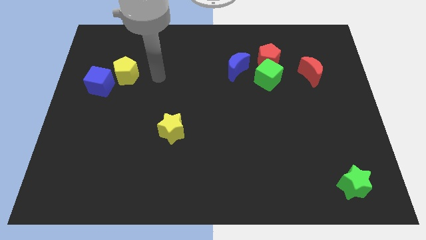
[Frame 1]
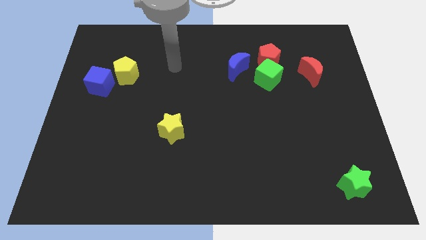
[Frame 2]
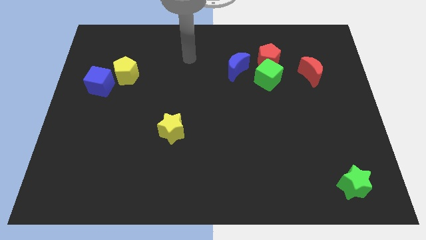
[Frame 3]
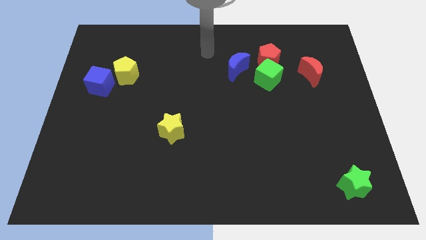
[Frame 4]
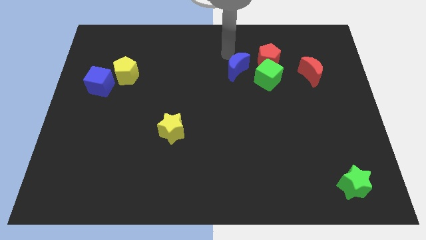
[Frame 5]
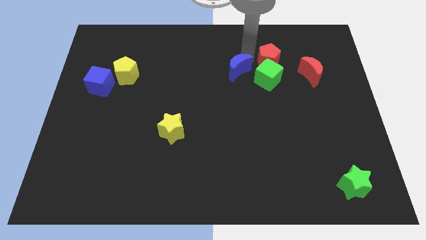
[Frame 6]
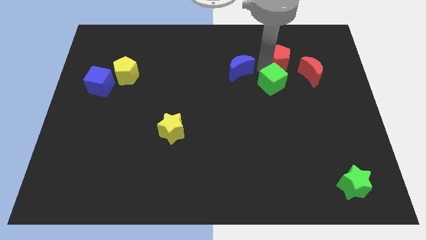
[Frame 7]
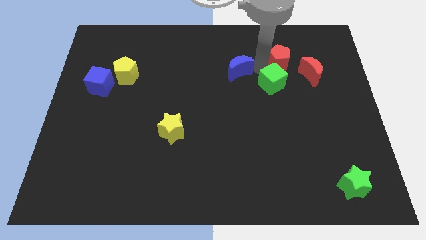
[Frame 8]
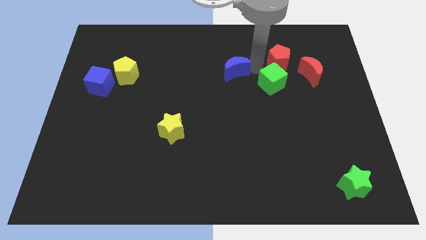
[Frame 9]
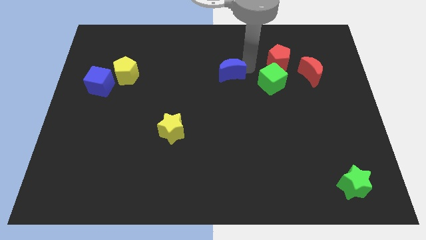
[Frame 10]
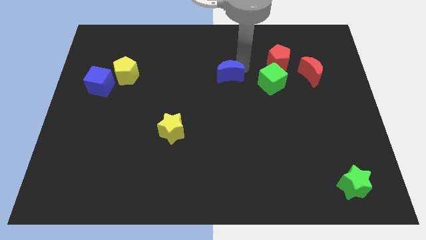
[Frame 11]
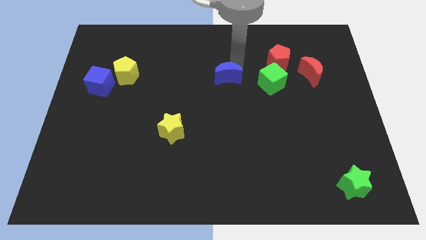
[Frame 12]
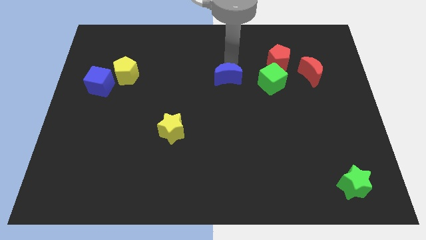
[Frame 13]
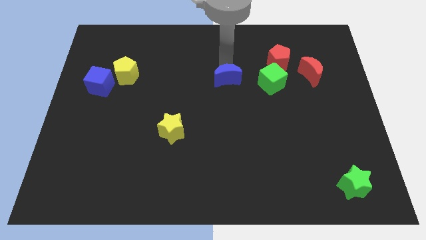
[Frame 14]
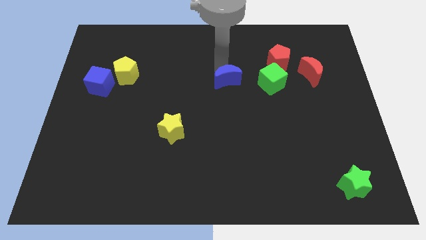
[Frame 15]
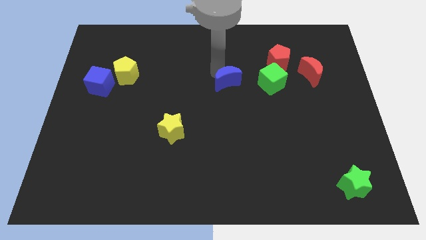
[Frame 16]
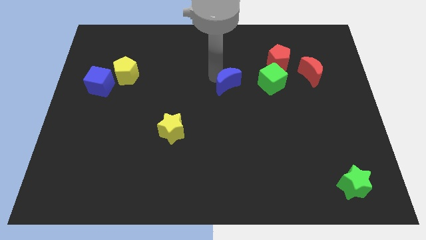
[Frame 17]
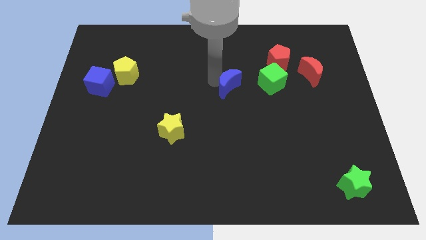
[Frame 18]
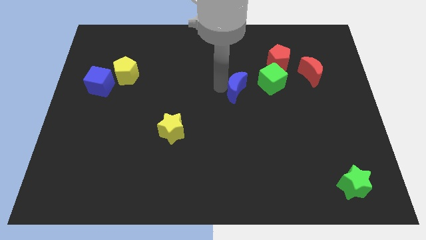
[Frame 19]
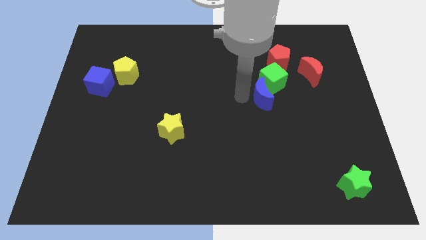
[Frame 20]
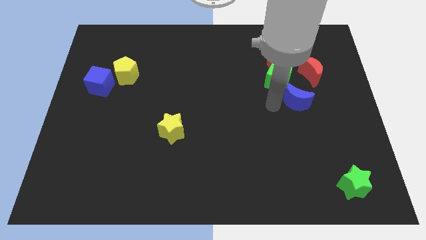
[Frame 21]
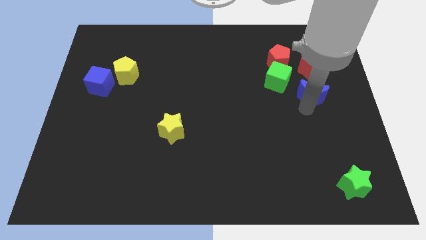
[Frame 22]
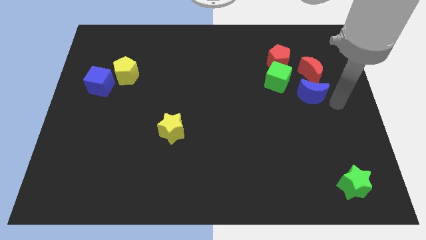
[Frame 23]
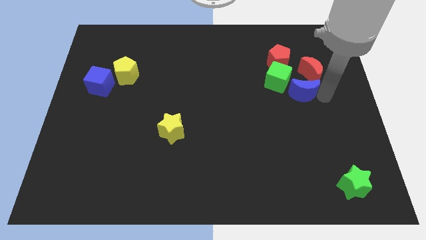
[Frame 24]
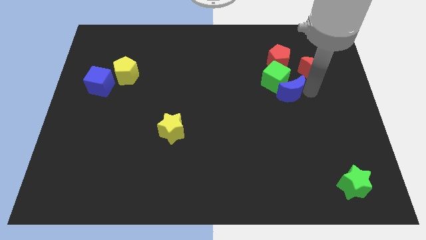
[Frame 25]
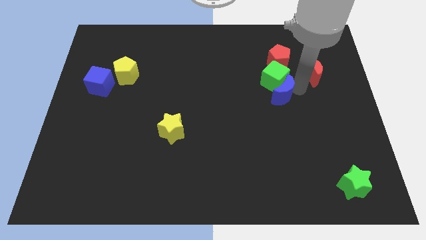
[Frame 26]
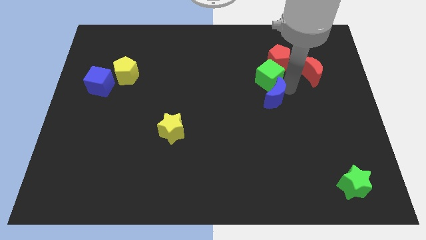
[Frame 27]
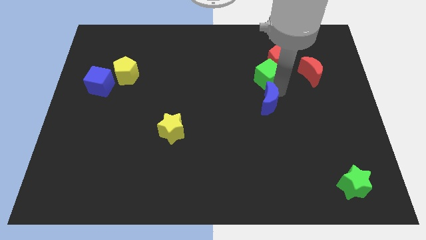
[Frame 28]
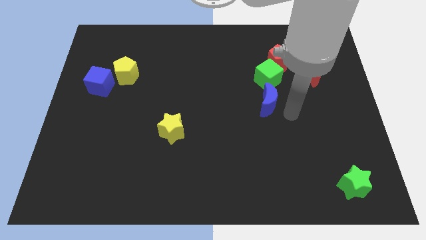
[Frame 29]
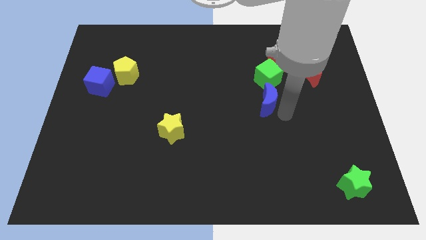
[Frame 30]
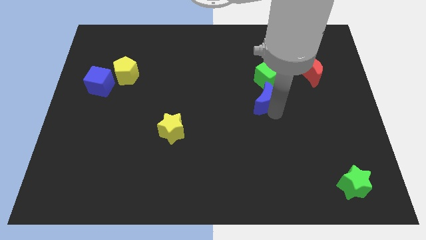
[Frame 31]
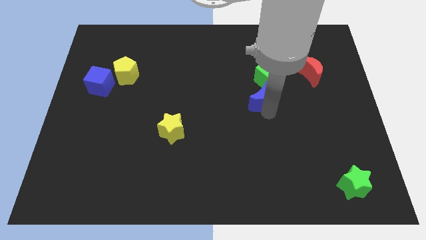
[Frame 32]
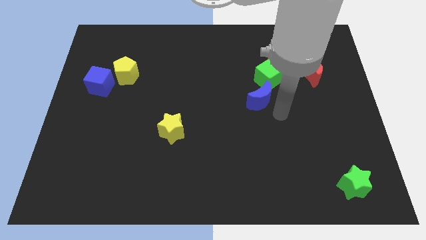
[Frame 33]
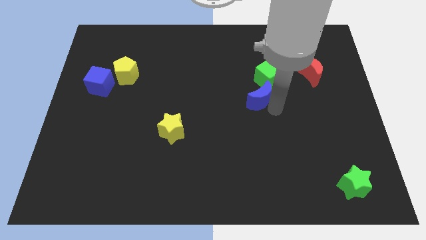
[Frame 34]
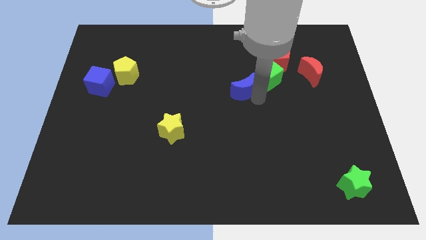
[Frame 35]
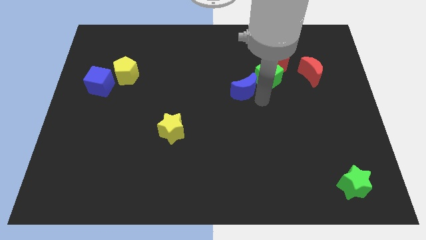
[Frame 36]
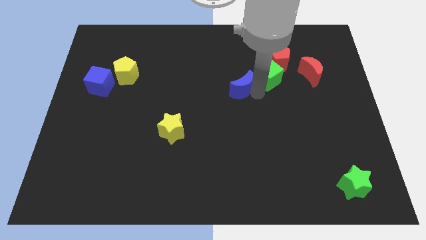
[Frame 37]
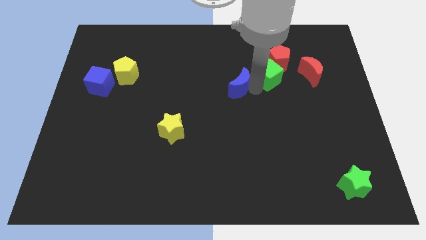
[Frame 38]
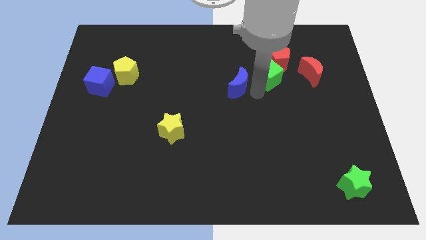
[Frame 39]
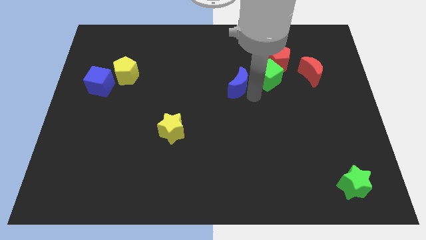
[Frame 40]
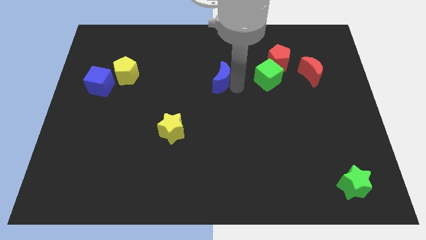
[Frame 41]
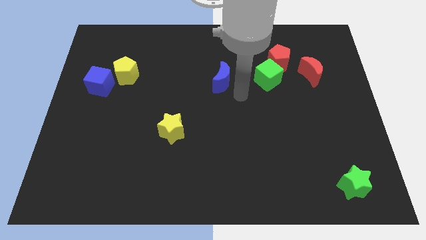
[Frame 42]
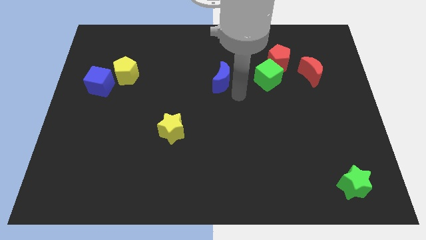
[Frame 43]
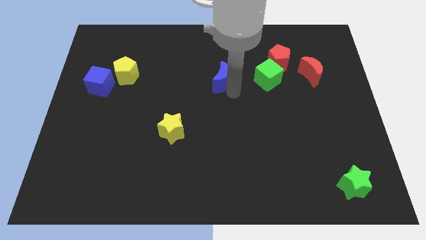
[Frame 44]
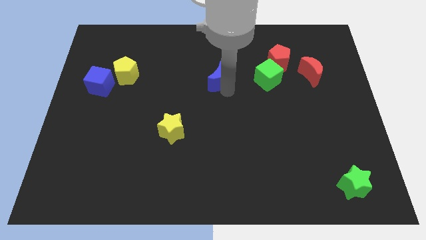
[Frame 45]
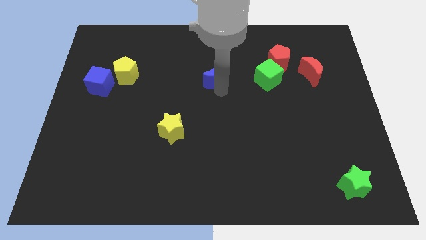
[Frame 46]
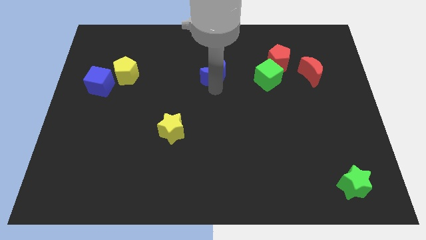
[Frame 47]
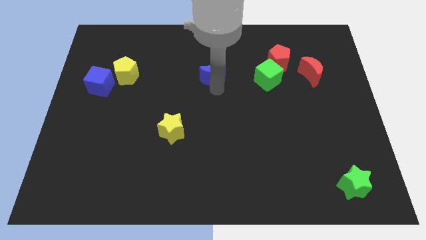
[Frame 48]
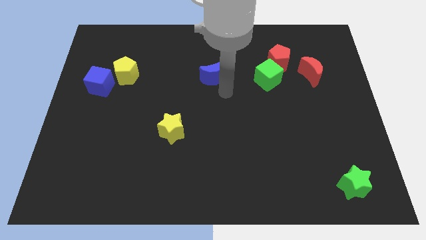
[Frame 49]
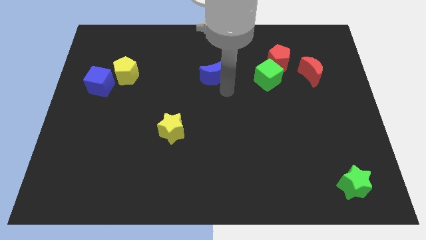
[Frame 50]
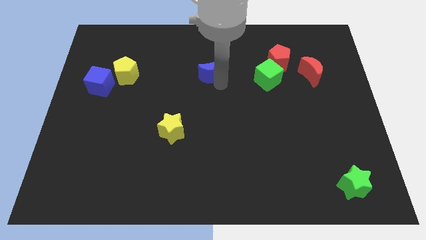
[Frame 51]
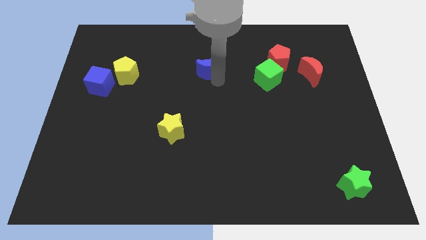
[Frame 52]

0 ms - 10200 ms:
push the blue moon to the left somewhat

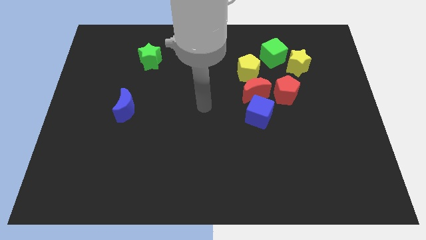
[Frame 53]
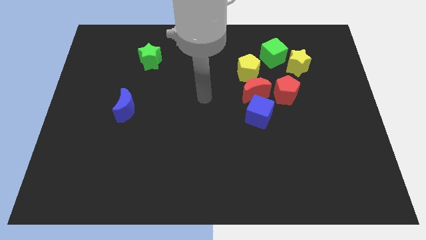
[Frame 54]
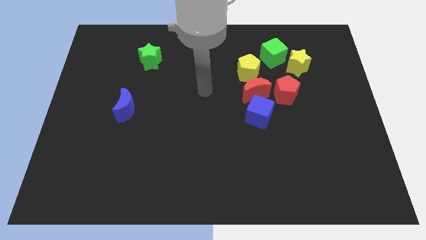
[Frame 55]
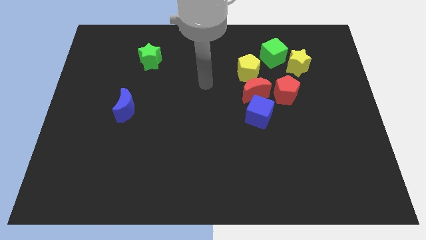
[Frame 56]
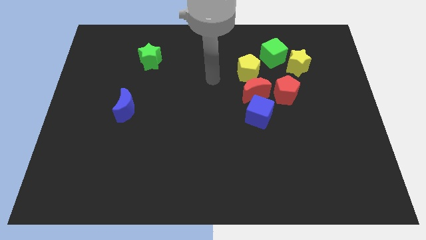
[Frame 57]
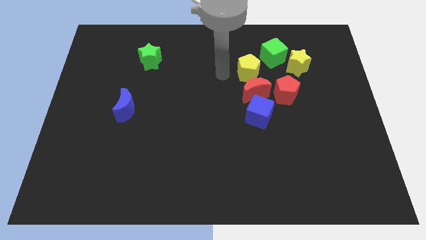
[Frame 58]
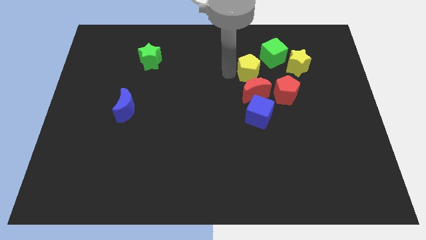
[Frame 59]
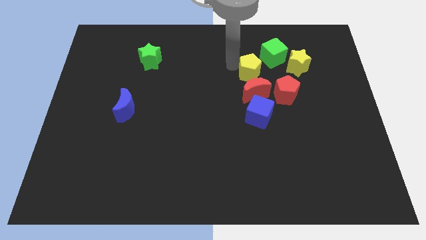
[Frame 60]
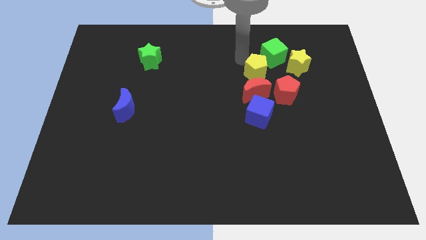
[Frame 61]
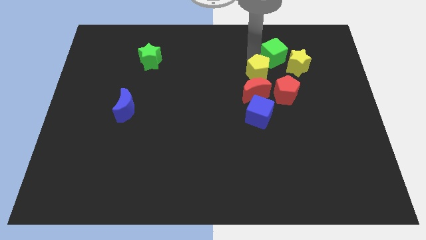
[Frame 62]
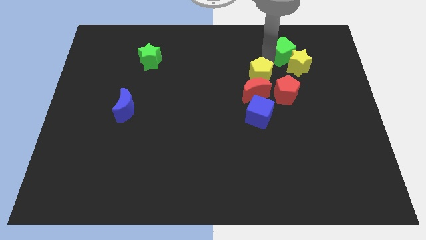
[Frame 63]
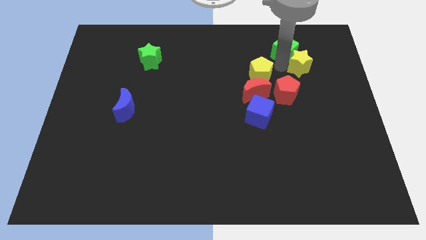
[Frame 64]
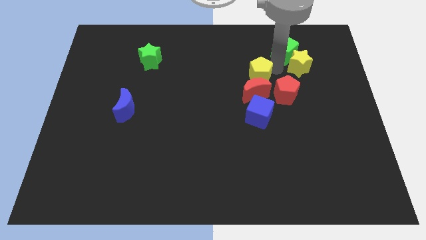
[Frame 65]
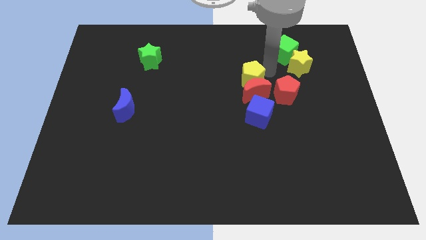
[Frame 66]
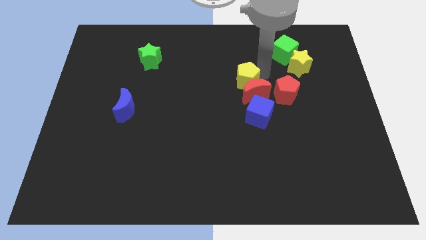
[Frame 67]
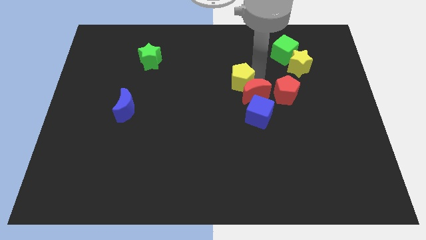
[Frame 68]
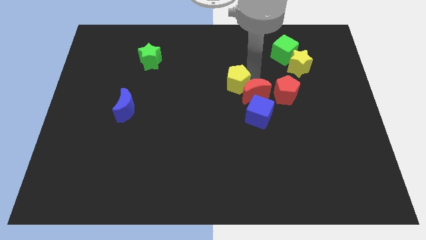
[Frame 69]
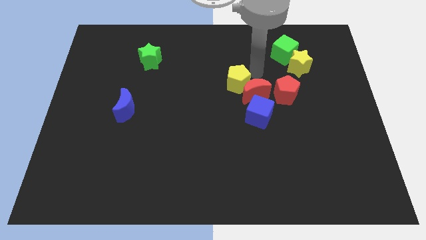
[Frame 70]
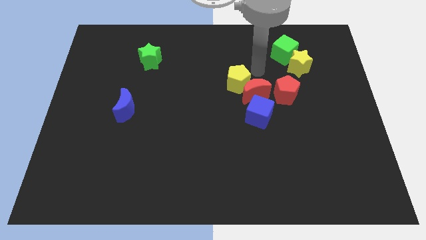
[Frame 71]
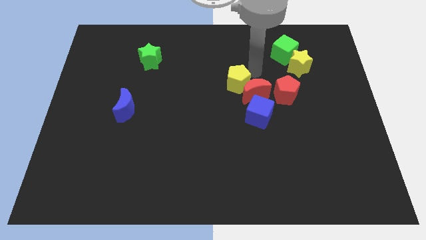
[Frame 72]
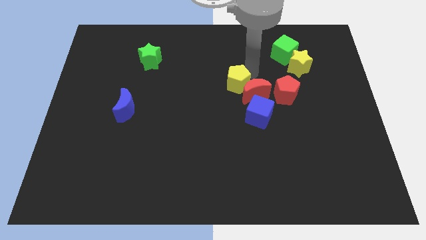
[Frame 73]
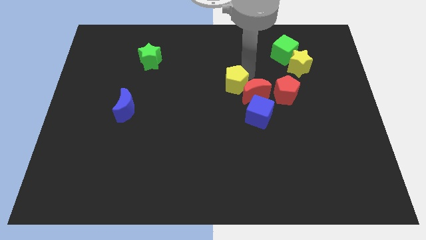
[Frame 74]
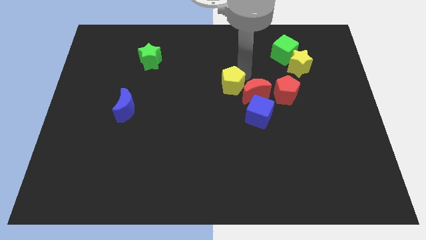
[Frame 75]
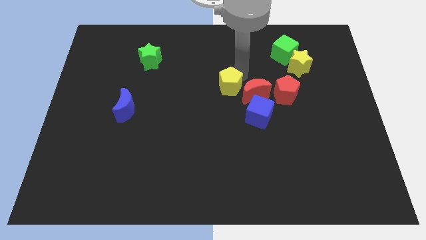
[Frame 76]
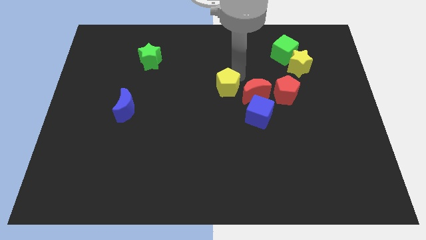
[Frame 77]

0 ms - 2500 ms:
slightly slide the yellow pentagon diagonally down and left

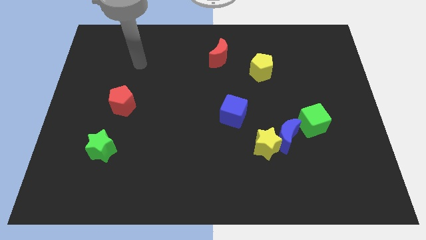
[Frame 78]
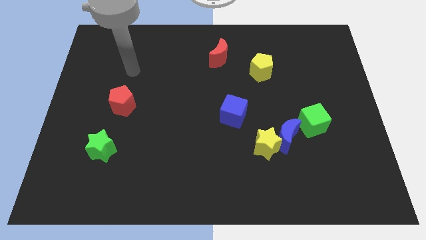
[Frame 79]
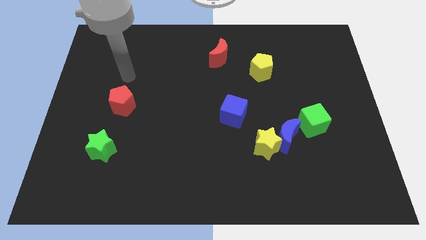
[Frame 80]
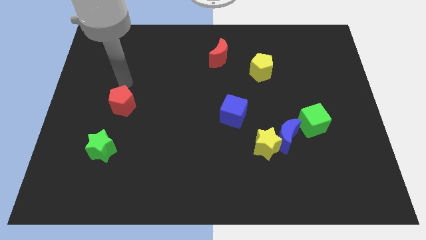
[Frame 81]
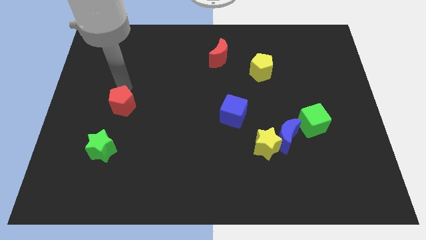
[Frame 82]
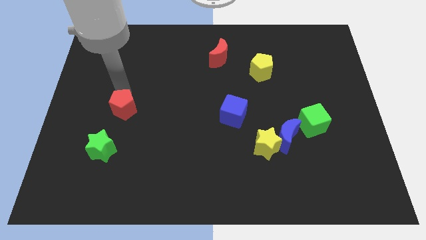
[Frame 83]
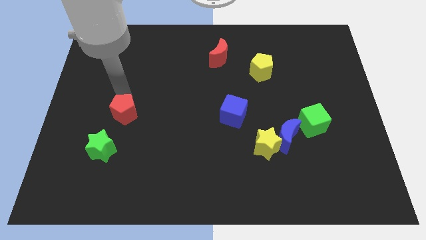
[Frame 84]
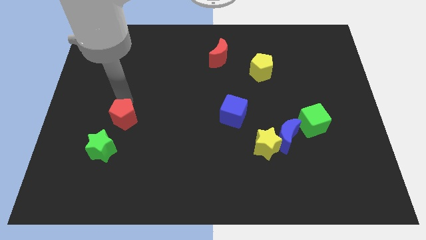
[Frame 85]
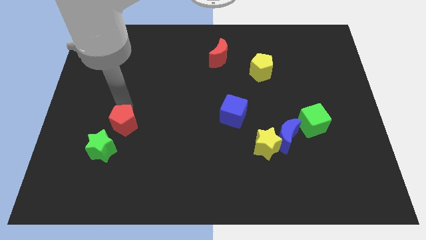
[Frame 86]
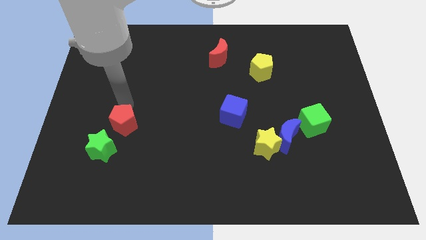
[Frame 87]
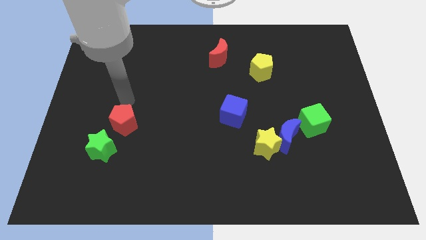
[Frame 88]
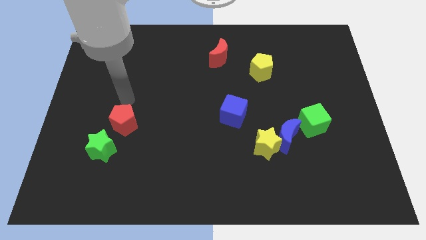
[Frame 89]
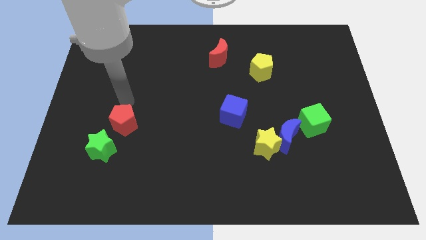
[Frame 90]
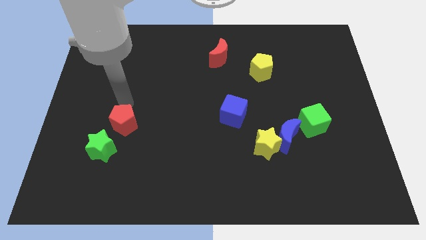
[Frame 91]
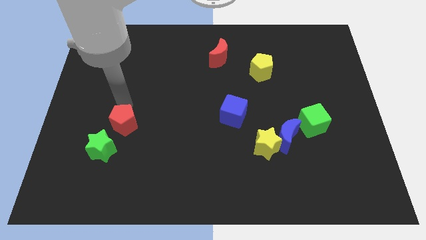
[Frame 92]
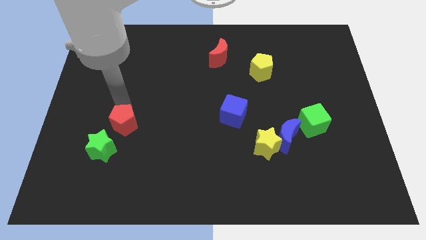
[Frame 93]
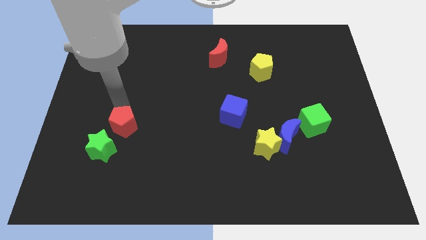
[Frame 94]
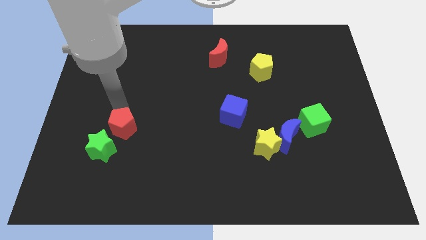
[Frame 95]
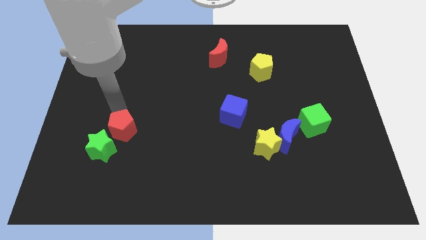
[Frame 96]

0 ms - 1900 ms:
push the red pentagon a bit downwards
